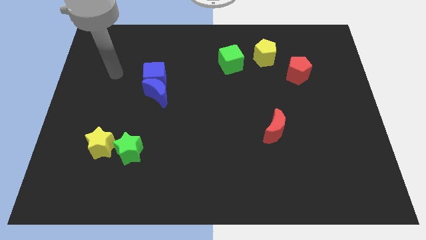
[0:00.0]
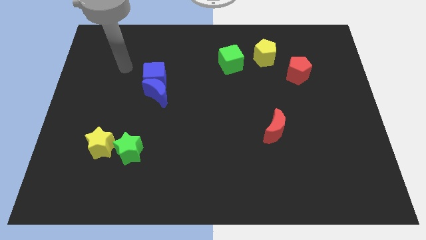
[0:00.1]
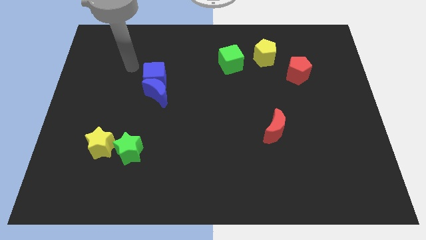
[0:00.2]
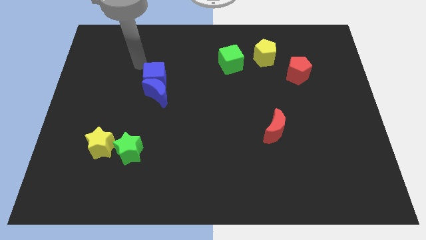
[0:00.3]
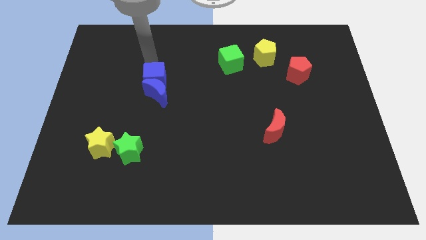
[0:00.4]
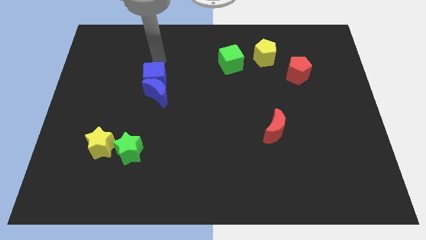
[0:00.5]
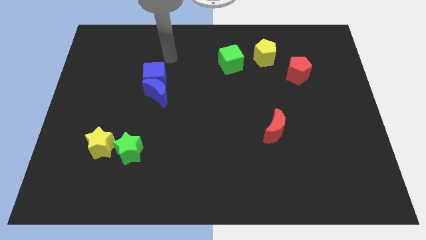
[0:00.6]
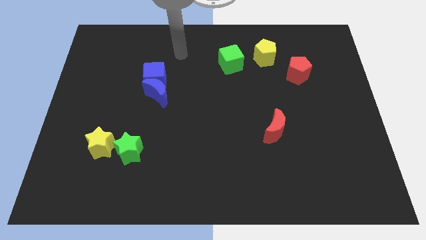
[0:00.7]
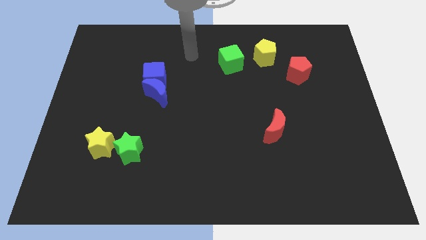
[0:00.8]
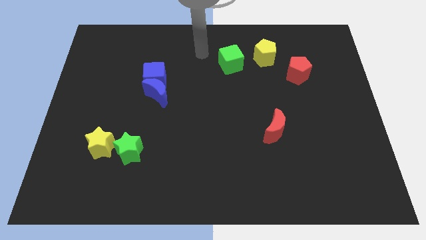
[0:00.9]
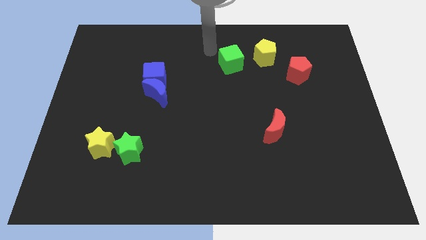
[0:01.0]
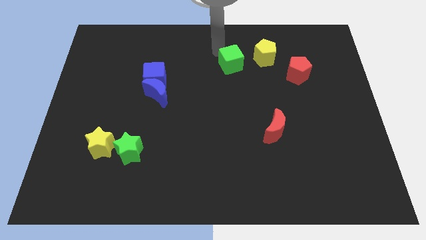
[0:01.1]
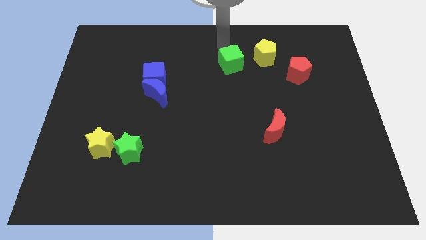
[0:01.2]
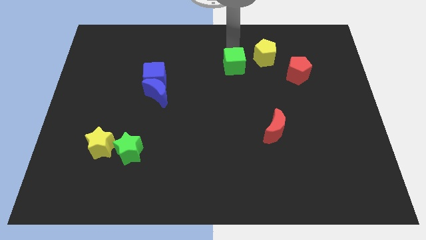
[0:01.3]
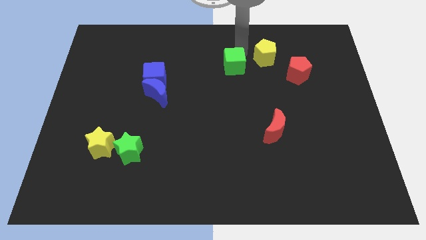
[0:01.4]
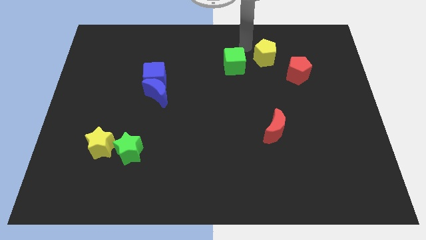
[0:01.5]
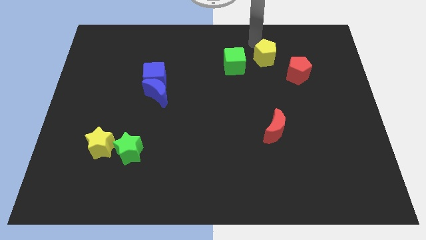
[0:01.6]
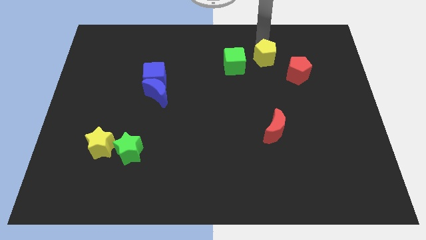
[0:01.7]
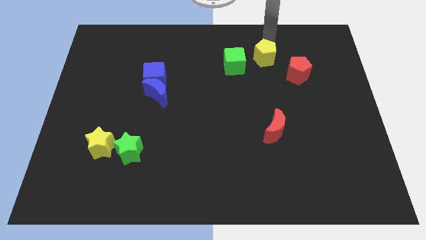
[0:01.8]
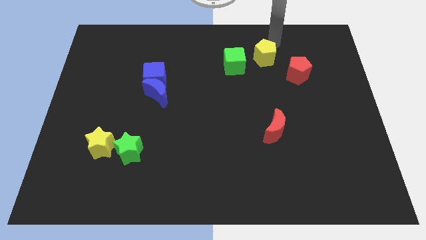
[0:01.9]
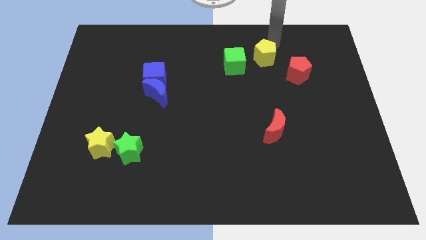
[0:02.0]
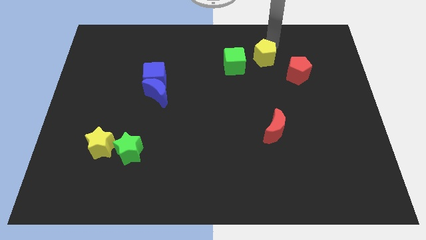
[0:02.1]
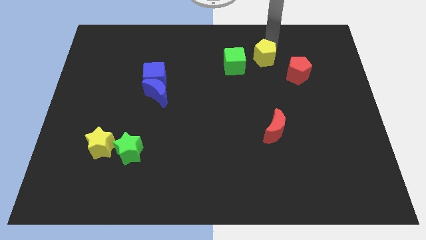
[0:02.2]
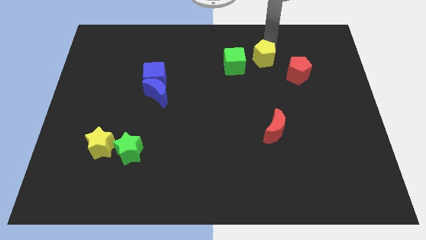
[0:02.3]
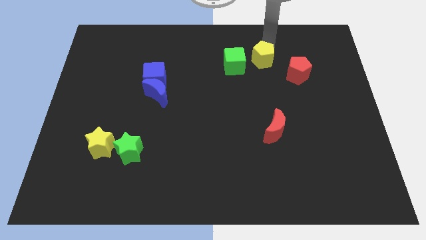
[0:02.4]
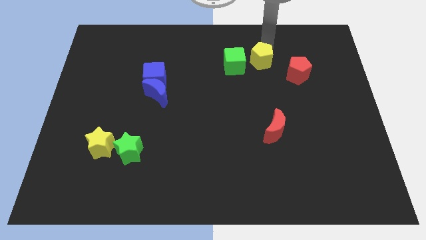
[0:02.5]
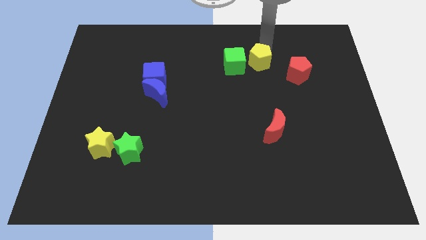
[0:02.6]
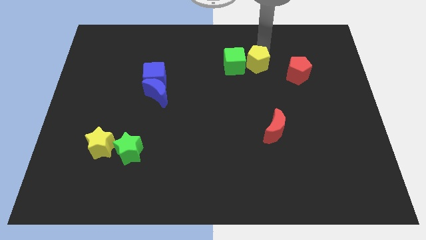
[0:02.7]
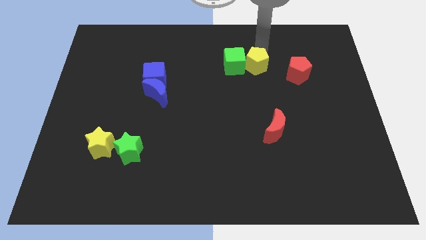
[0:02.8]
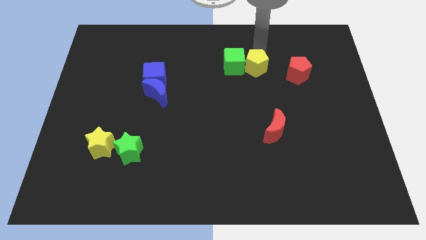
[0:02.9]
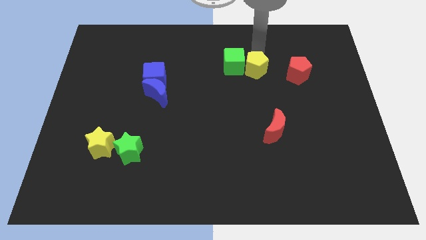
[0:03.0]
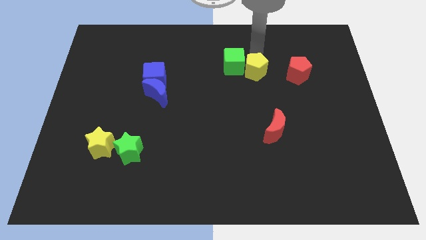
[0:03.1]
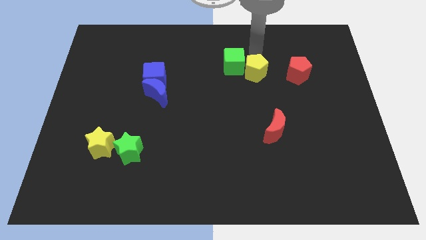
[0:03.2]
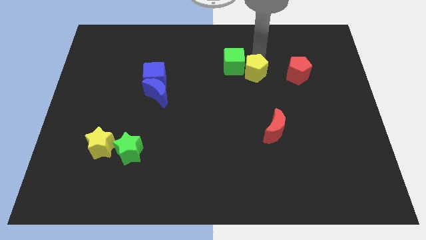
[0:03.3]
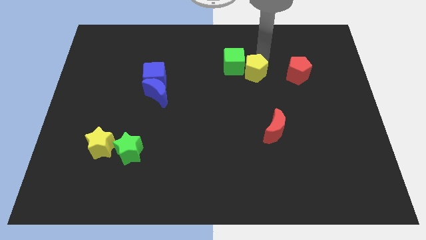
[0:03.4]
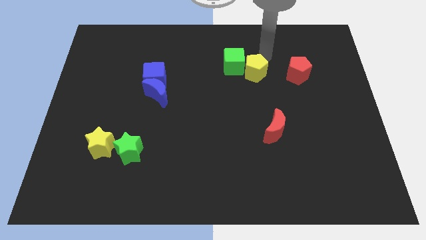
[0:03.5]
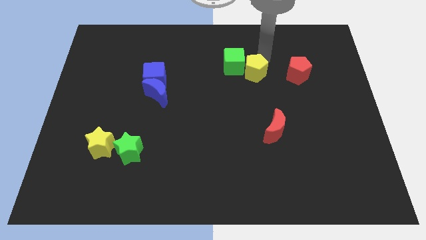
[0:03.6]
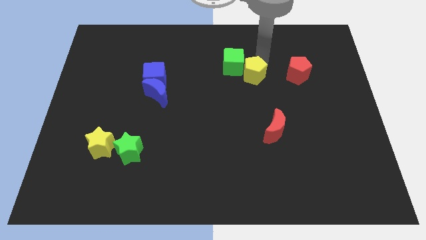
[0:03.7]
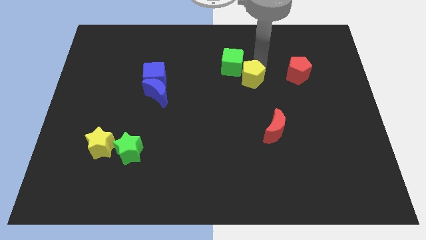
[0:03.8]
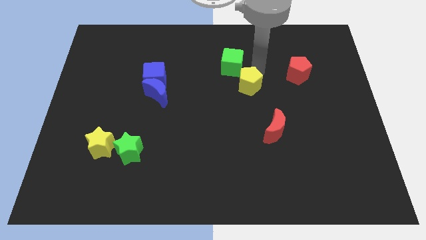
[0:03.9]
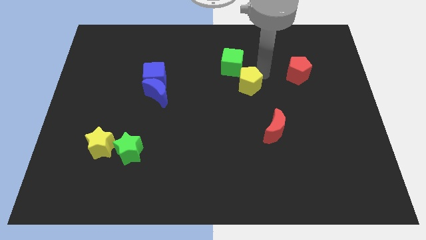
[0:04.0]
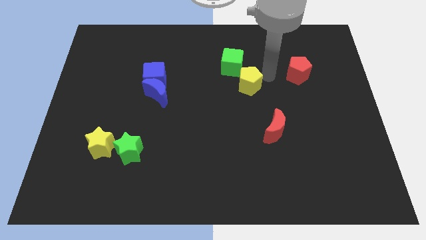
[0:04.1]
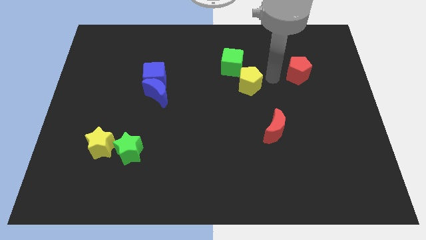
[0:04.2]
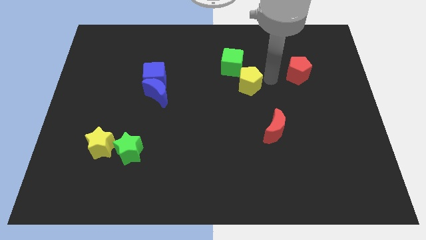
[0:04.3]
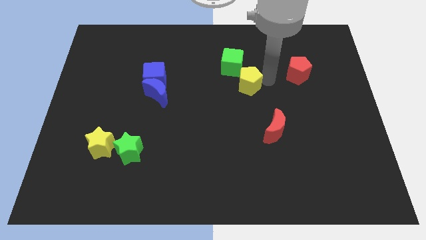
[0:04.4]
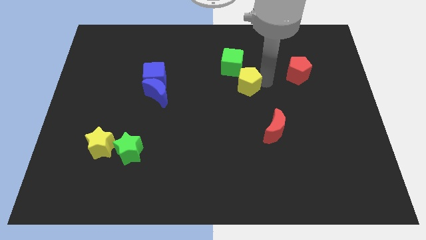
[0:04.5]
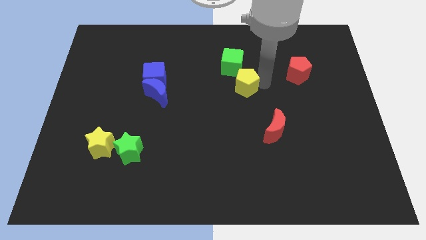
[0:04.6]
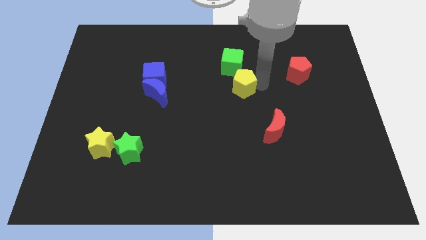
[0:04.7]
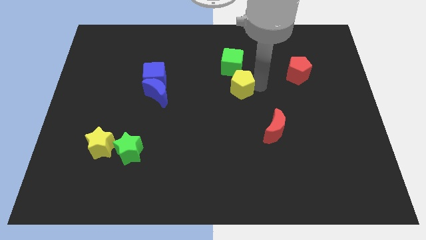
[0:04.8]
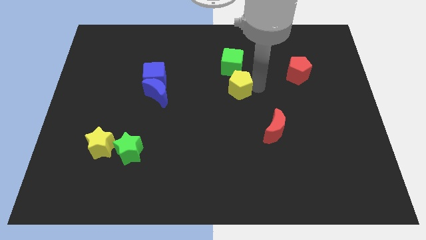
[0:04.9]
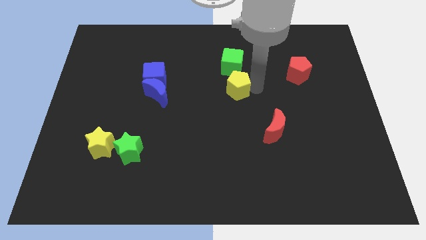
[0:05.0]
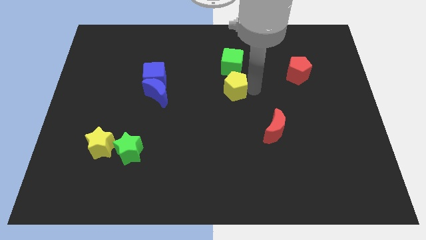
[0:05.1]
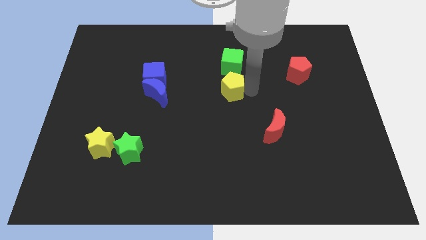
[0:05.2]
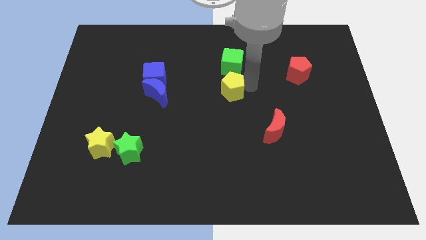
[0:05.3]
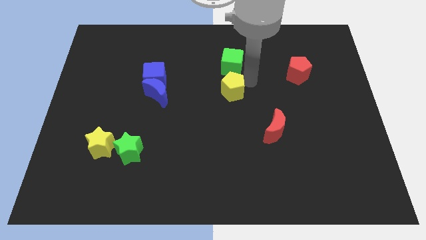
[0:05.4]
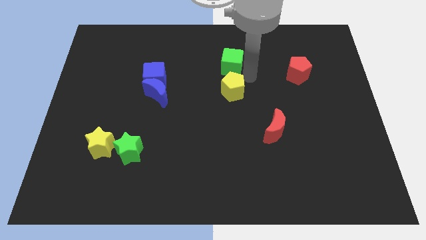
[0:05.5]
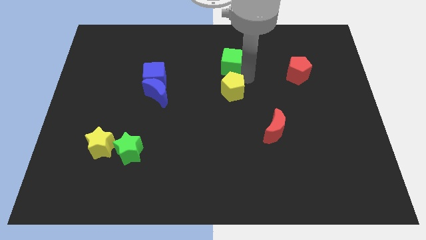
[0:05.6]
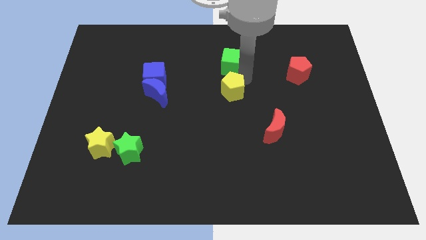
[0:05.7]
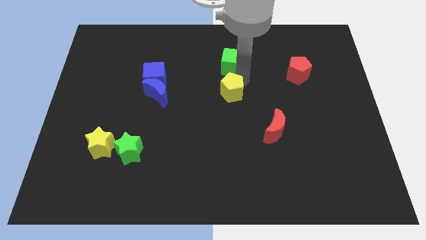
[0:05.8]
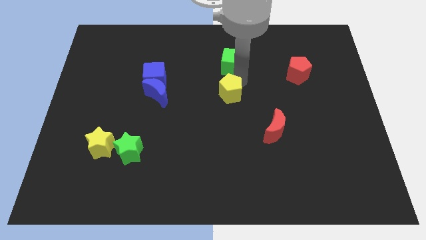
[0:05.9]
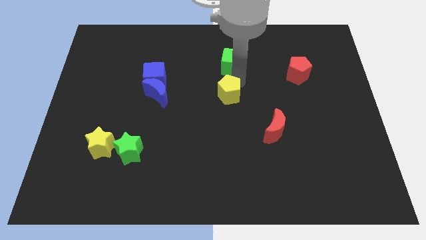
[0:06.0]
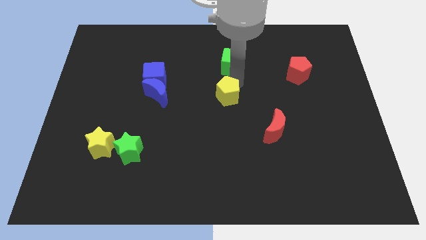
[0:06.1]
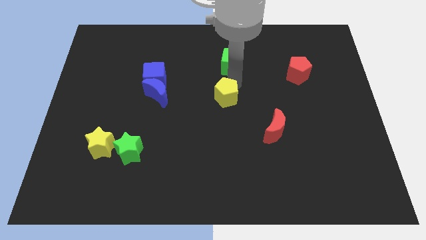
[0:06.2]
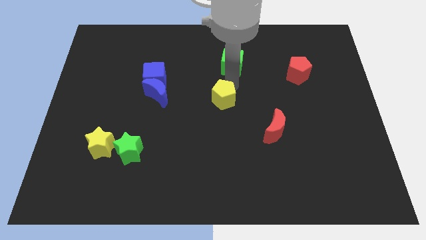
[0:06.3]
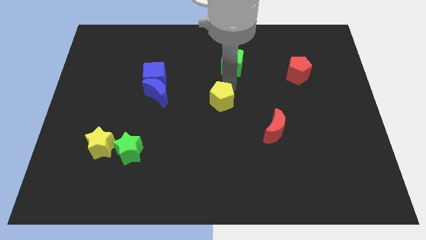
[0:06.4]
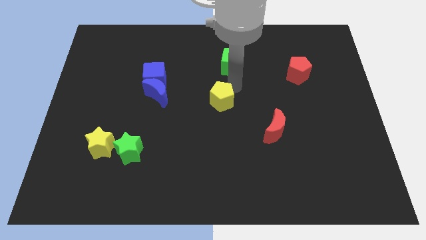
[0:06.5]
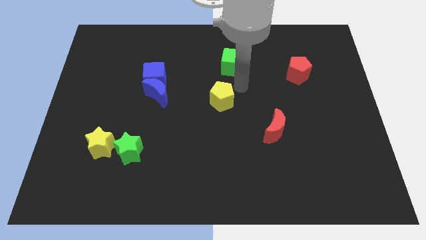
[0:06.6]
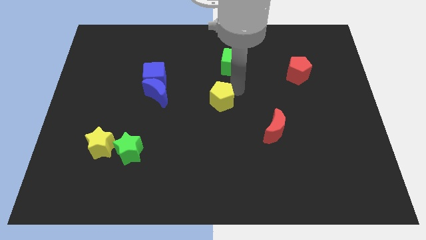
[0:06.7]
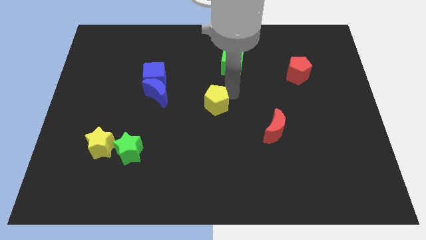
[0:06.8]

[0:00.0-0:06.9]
push the yellow pentagon downwards and then left

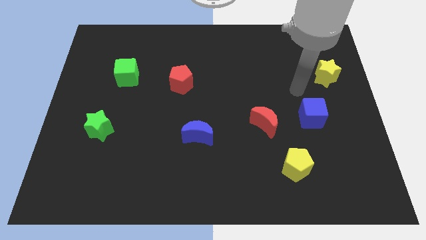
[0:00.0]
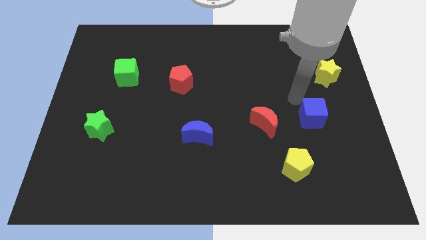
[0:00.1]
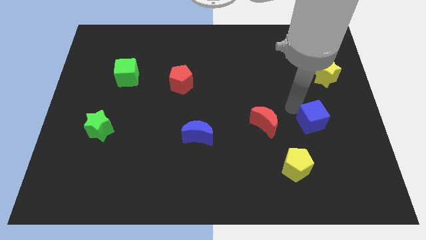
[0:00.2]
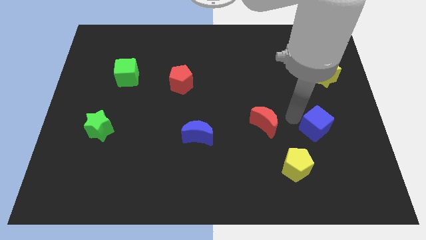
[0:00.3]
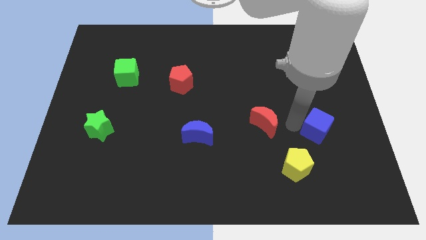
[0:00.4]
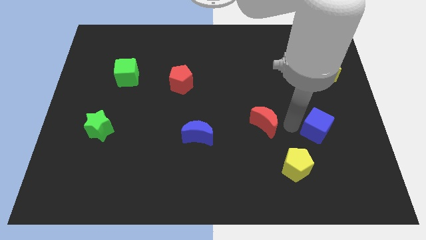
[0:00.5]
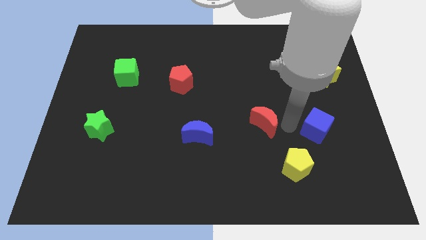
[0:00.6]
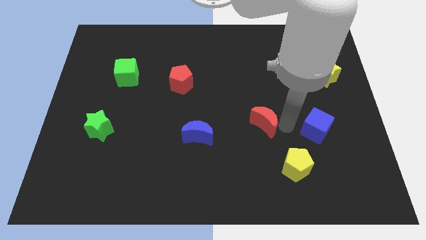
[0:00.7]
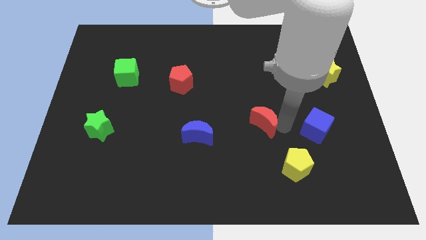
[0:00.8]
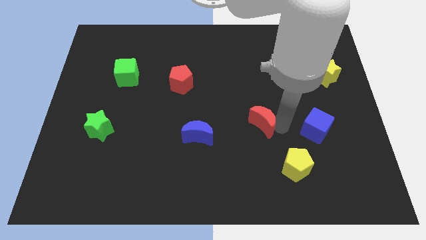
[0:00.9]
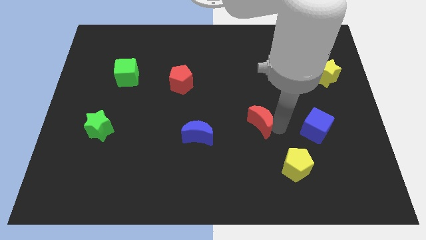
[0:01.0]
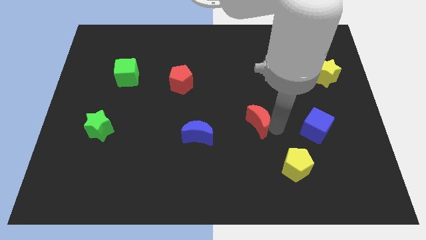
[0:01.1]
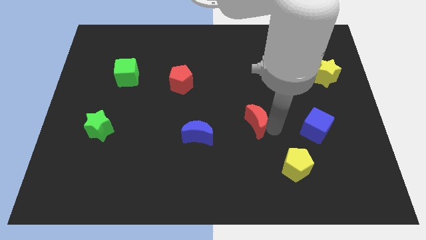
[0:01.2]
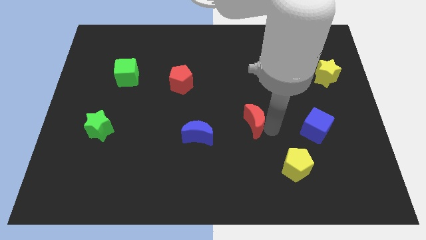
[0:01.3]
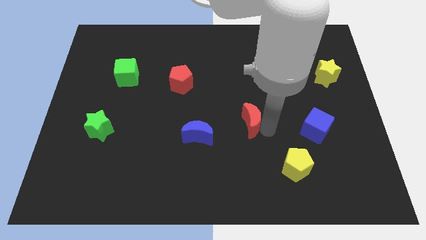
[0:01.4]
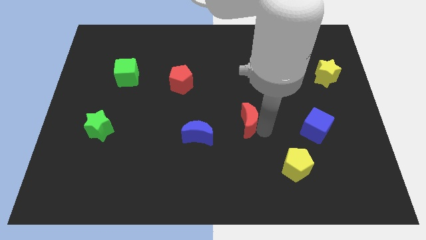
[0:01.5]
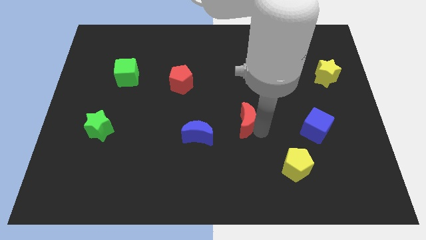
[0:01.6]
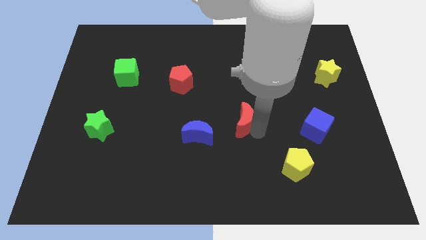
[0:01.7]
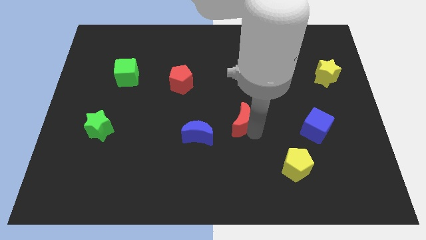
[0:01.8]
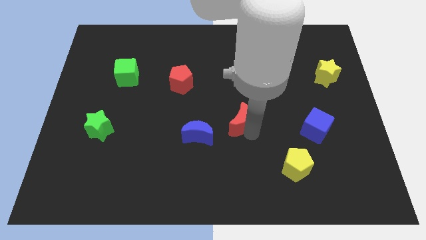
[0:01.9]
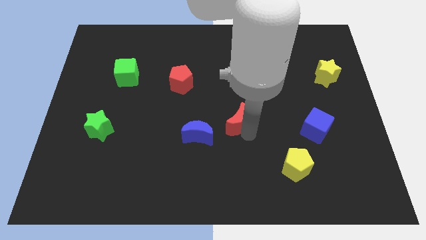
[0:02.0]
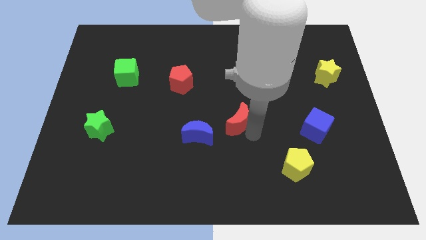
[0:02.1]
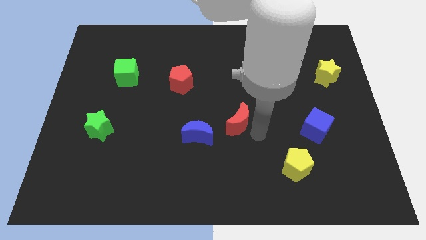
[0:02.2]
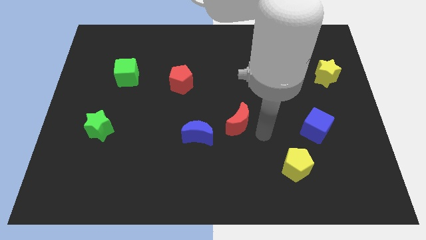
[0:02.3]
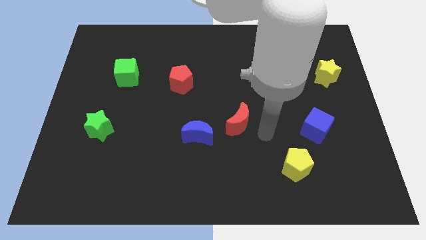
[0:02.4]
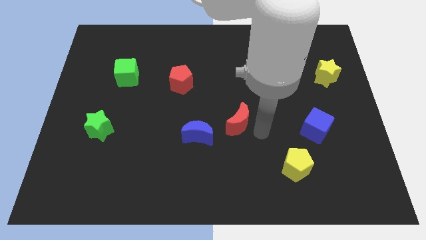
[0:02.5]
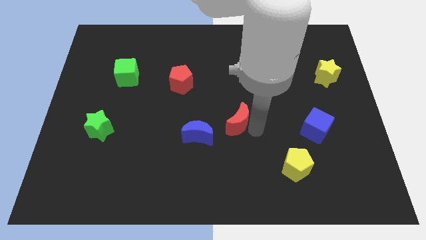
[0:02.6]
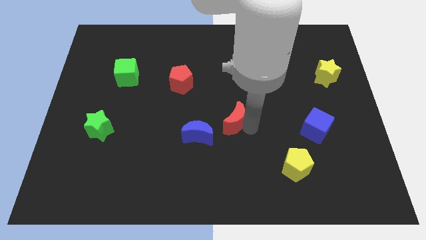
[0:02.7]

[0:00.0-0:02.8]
move the red moon a bit to the left
